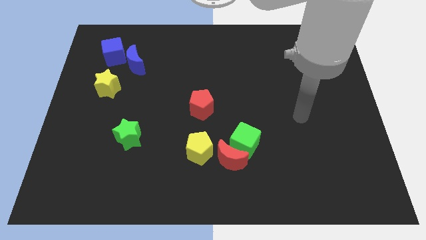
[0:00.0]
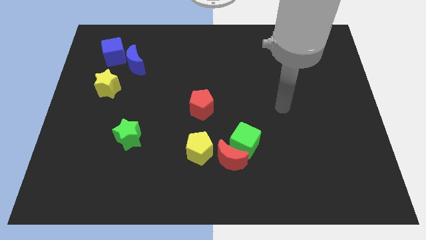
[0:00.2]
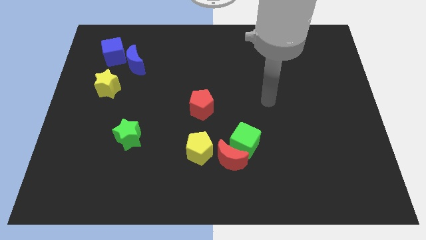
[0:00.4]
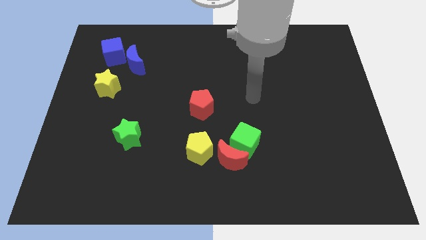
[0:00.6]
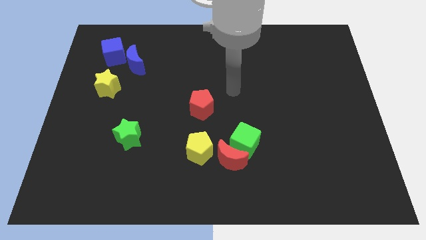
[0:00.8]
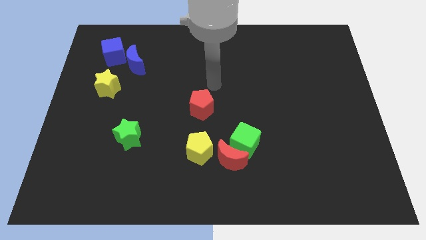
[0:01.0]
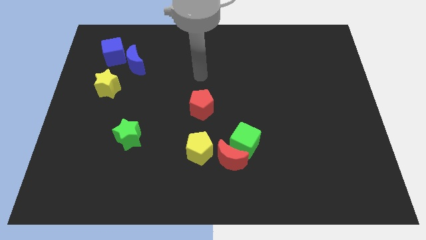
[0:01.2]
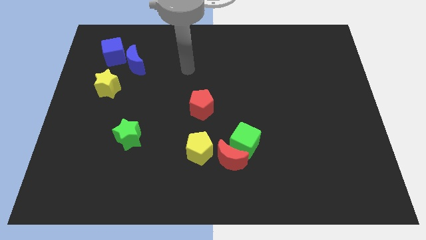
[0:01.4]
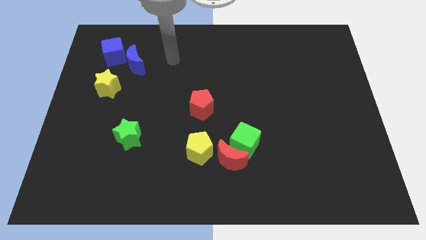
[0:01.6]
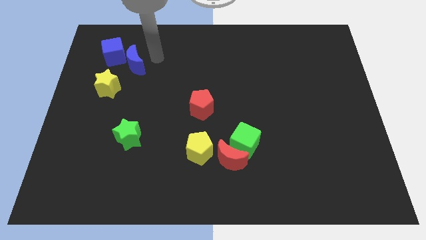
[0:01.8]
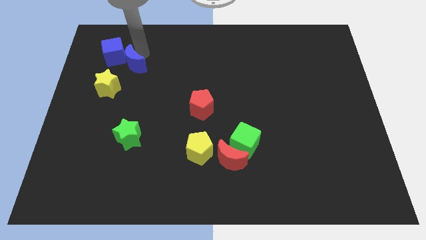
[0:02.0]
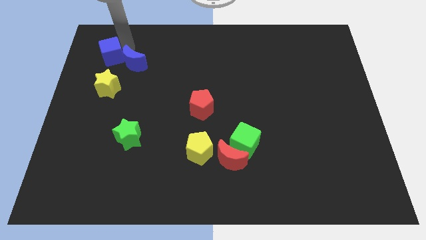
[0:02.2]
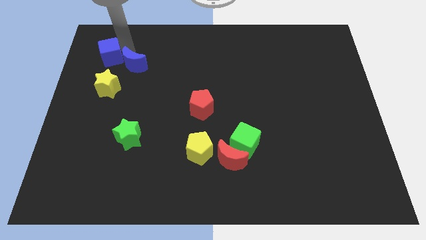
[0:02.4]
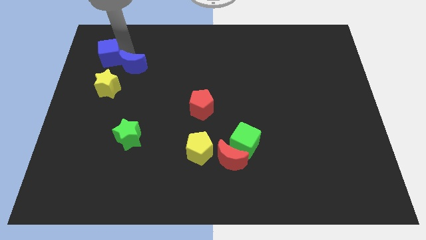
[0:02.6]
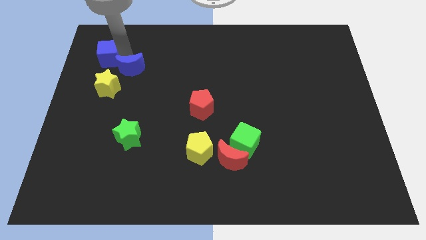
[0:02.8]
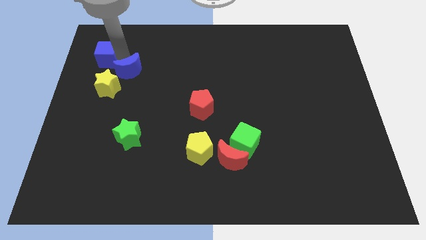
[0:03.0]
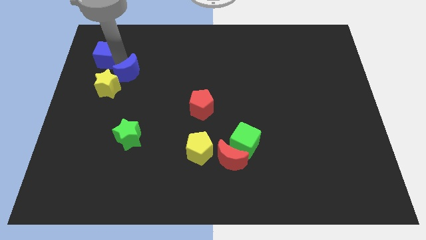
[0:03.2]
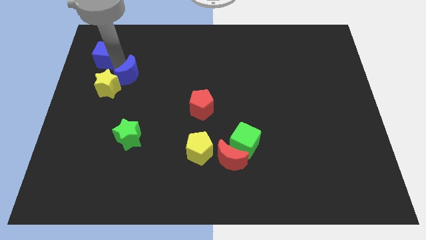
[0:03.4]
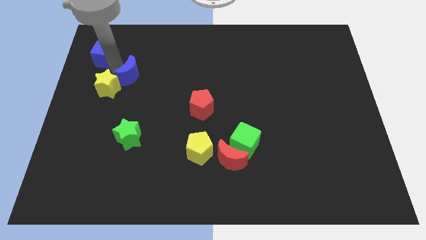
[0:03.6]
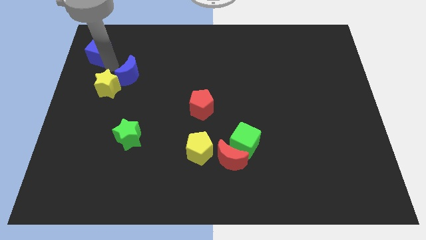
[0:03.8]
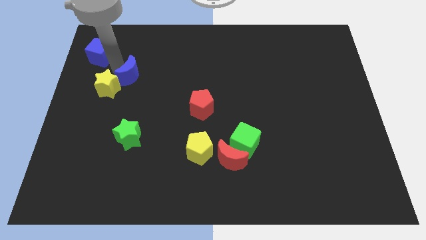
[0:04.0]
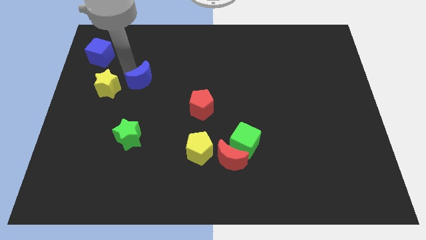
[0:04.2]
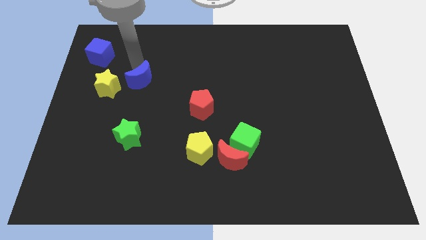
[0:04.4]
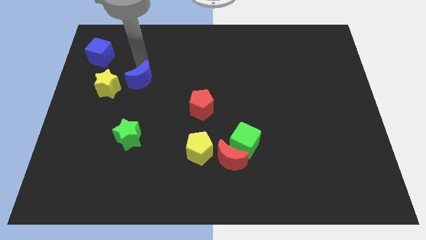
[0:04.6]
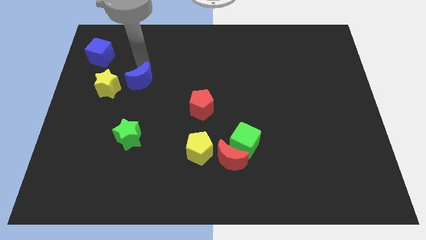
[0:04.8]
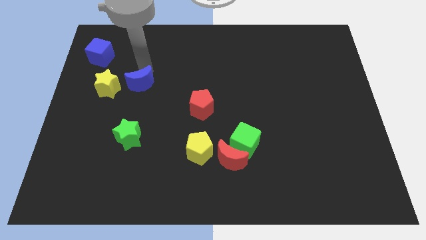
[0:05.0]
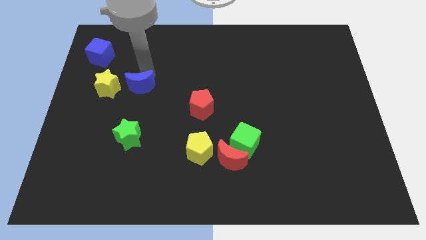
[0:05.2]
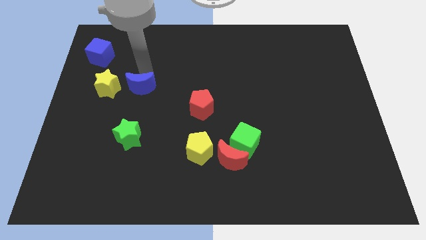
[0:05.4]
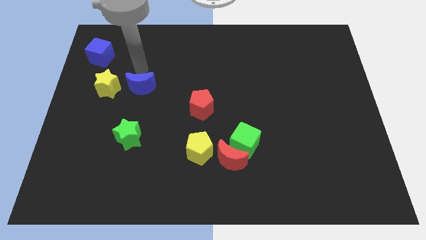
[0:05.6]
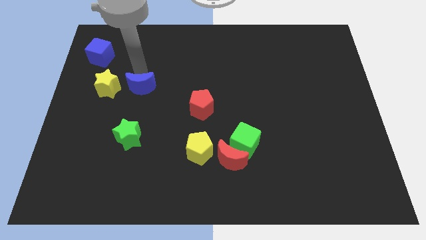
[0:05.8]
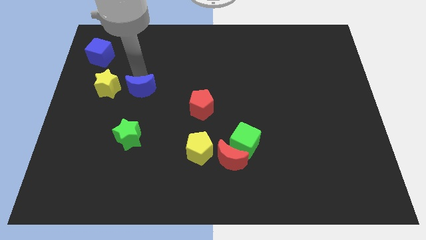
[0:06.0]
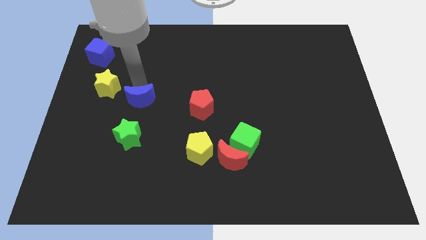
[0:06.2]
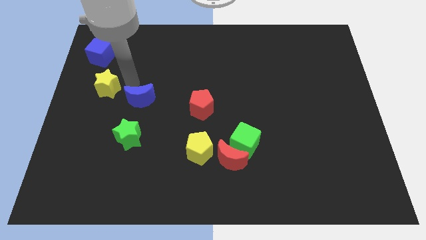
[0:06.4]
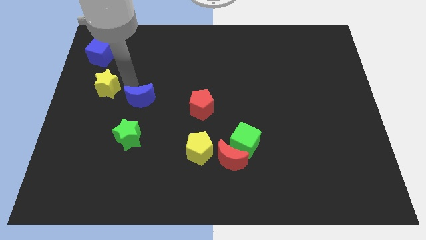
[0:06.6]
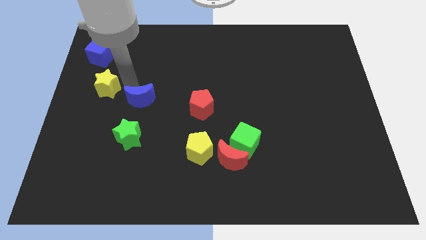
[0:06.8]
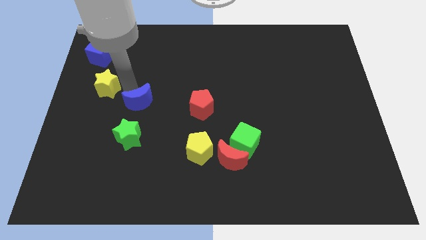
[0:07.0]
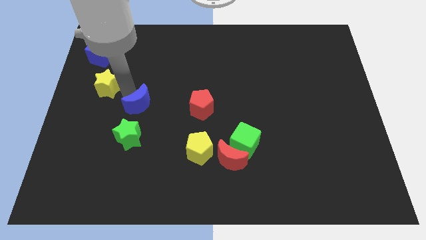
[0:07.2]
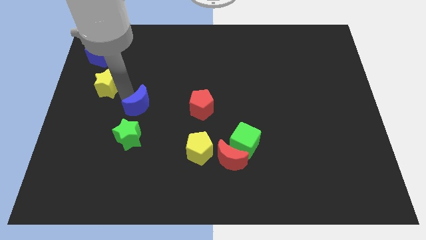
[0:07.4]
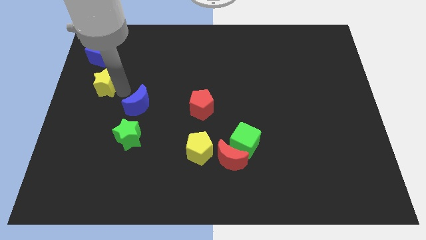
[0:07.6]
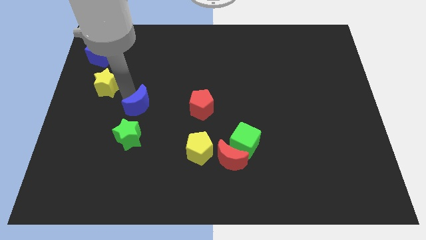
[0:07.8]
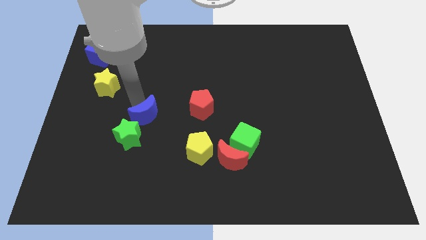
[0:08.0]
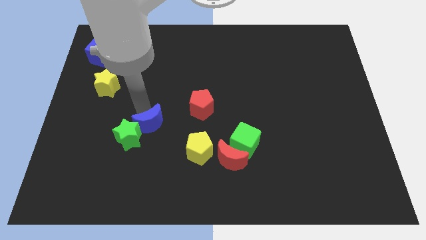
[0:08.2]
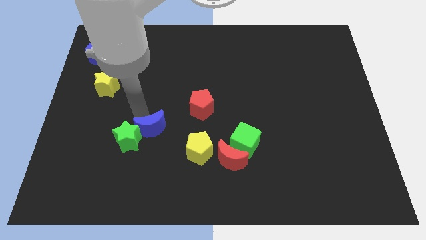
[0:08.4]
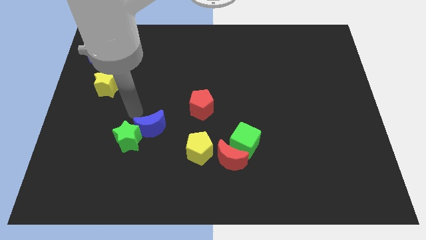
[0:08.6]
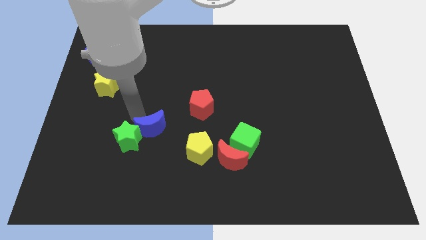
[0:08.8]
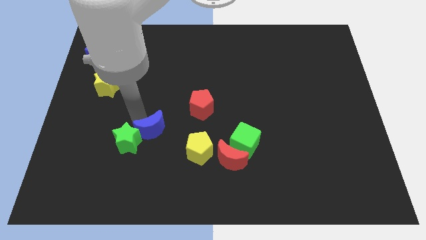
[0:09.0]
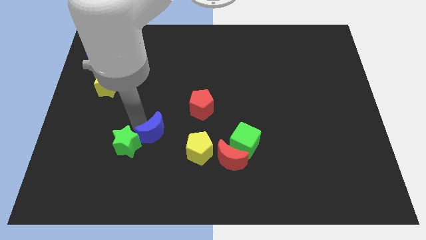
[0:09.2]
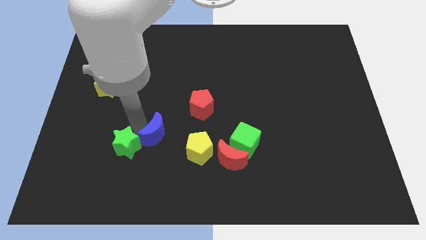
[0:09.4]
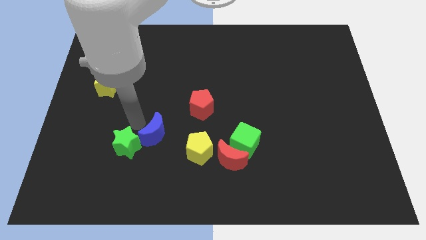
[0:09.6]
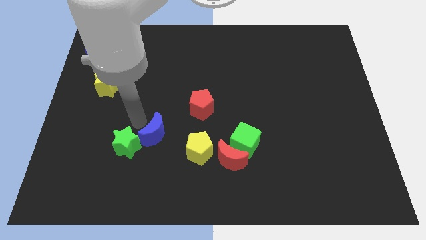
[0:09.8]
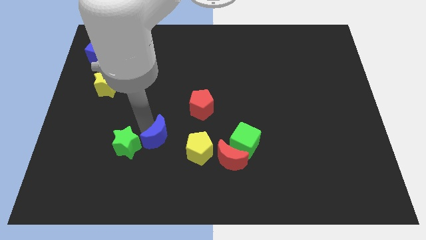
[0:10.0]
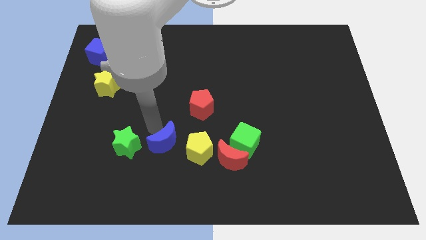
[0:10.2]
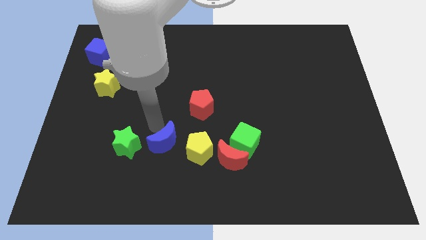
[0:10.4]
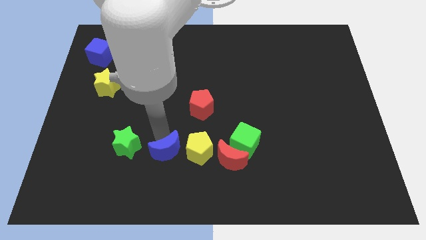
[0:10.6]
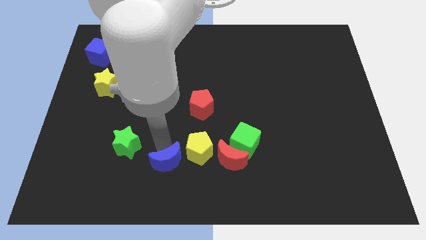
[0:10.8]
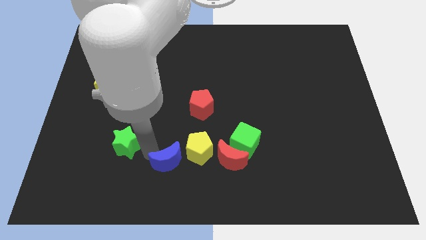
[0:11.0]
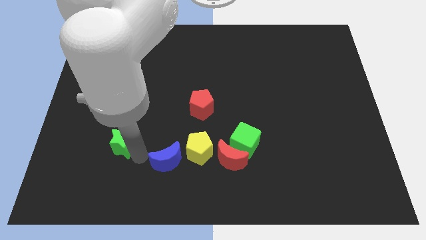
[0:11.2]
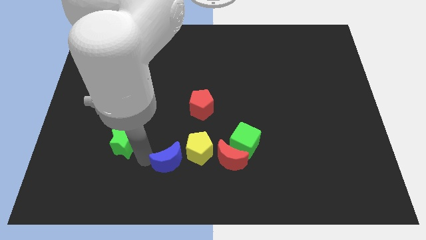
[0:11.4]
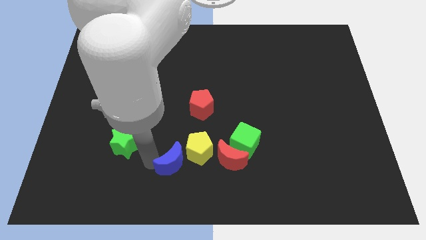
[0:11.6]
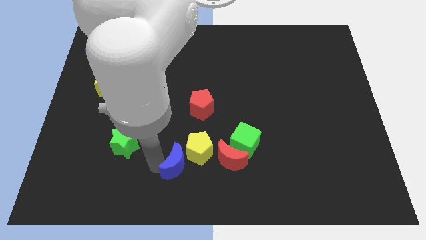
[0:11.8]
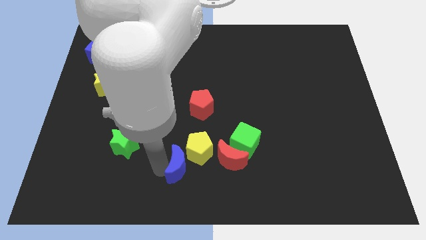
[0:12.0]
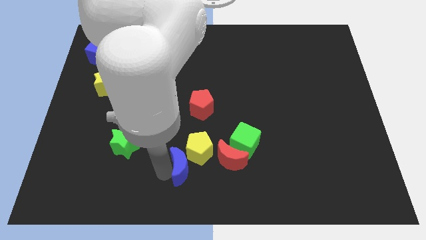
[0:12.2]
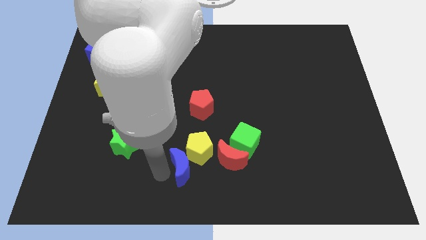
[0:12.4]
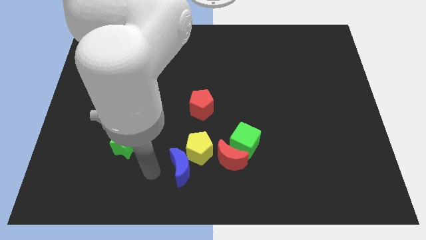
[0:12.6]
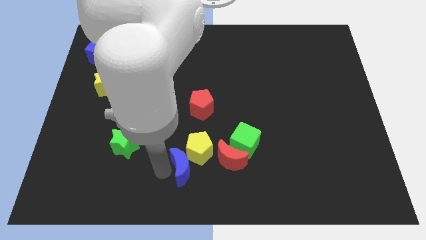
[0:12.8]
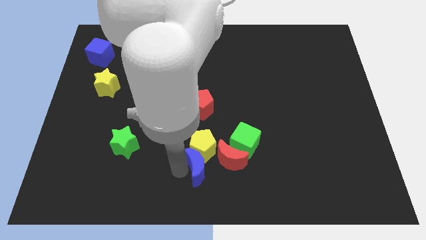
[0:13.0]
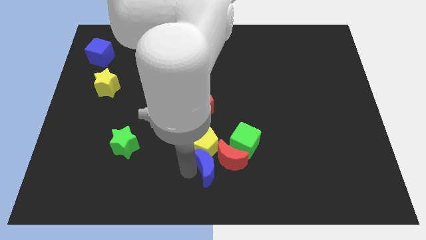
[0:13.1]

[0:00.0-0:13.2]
put the blue moon next to the red moon

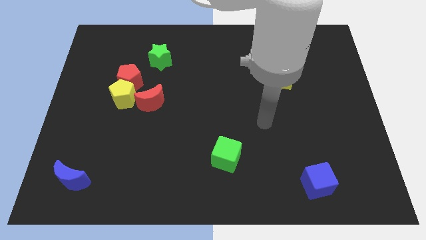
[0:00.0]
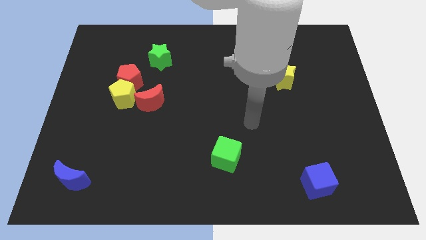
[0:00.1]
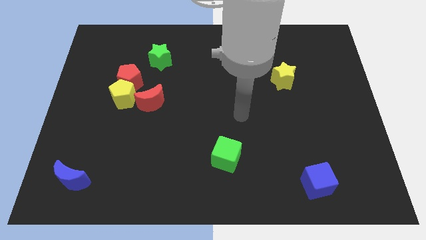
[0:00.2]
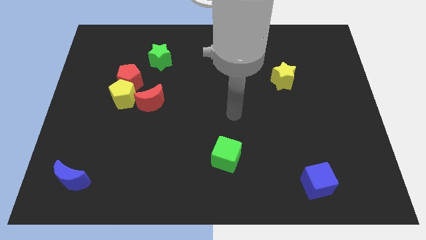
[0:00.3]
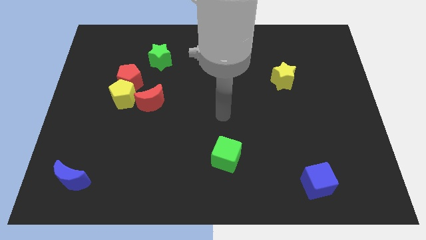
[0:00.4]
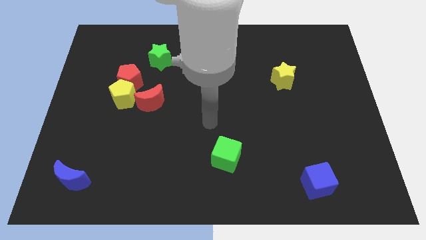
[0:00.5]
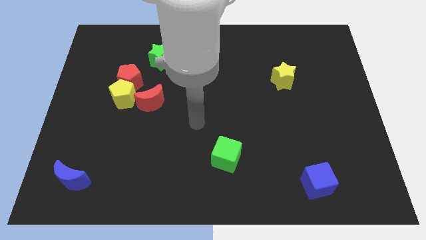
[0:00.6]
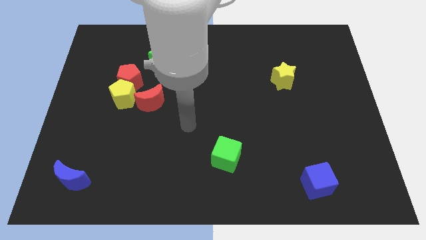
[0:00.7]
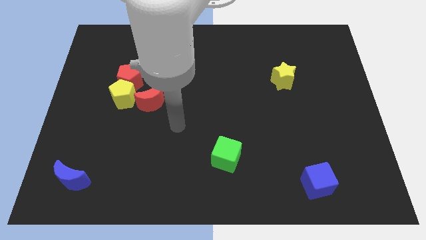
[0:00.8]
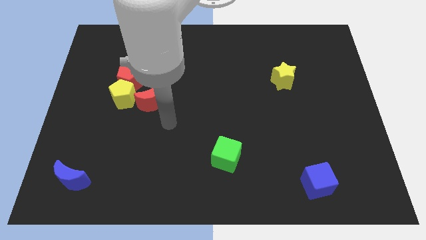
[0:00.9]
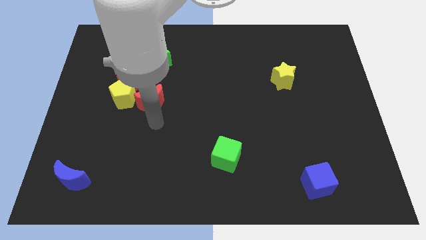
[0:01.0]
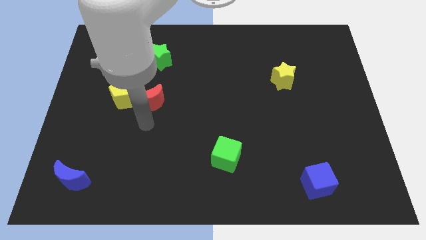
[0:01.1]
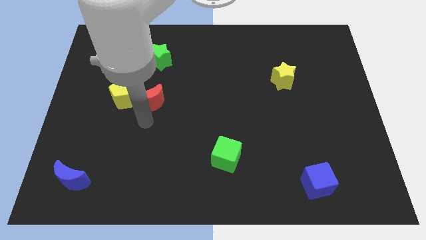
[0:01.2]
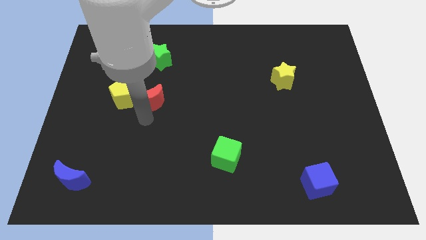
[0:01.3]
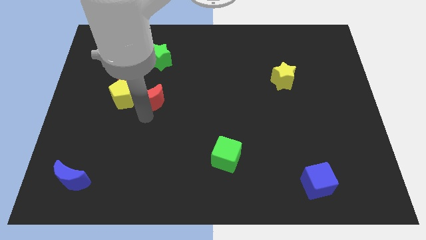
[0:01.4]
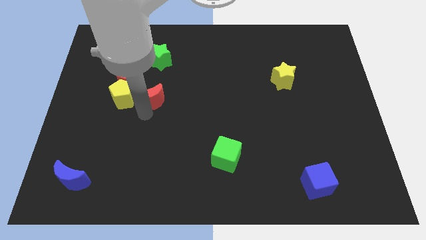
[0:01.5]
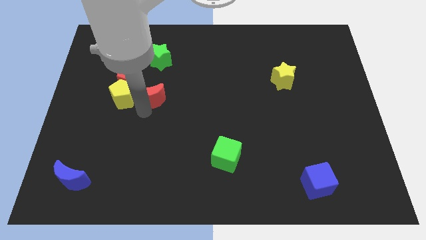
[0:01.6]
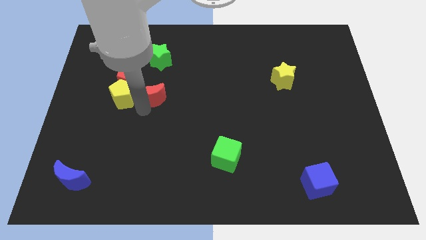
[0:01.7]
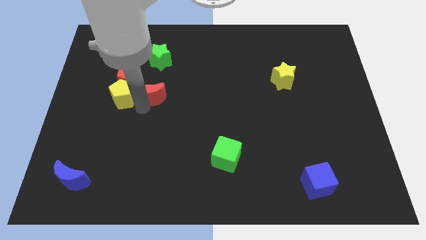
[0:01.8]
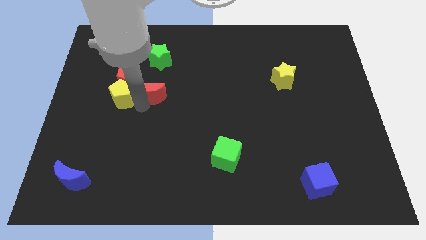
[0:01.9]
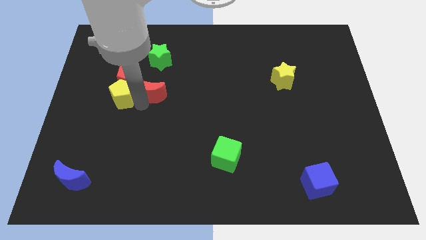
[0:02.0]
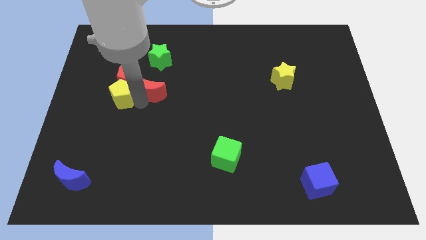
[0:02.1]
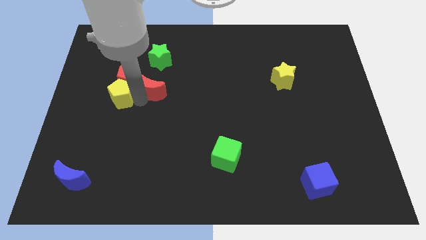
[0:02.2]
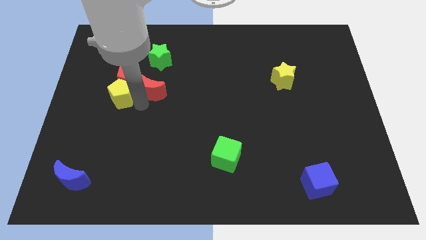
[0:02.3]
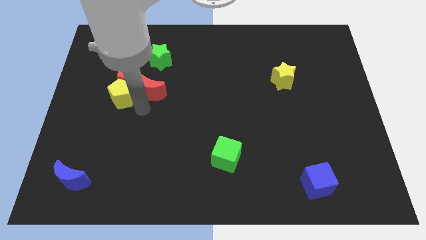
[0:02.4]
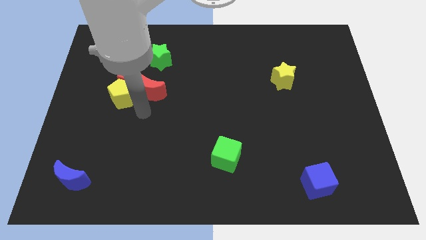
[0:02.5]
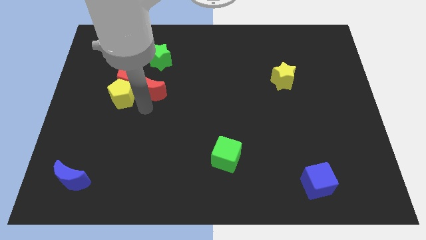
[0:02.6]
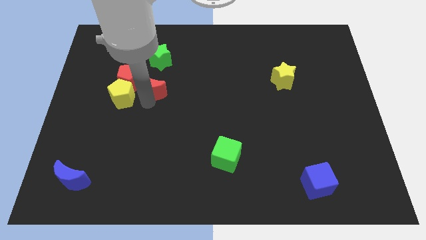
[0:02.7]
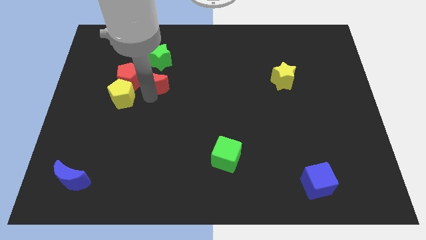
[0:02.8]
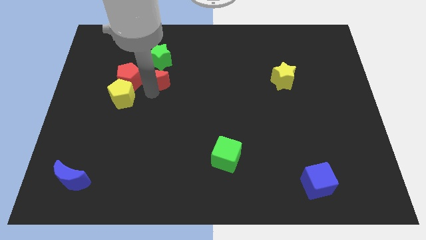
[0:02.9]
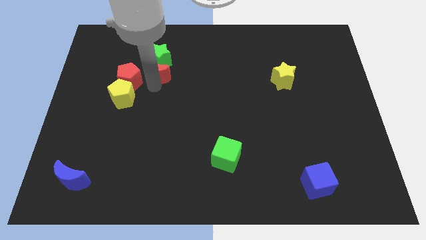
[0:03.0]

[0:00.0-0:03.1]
move the red moon close to the green star
